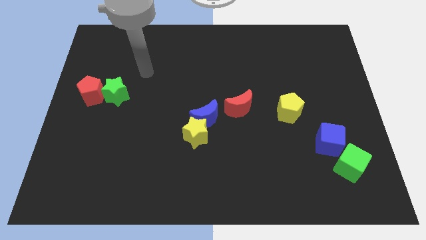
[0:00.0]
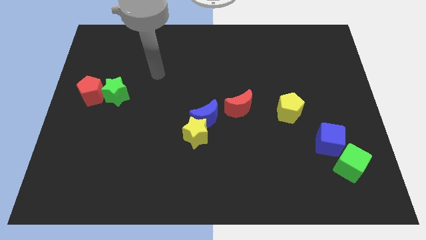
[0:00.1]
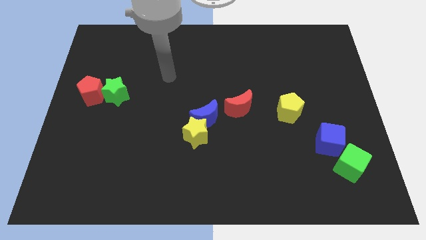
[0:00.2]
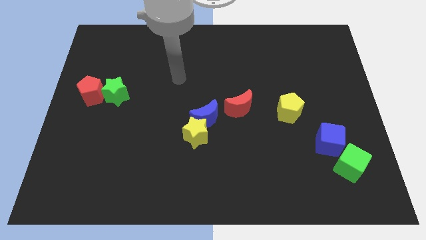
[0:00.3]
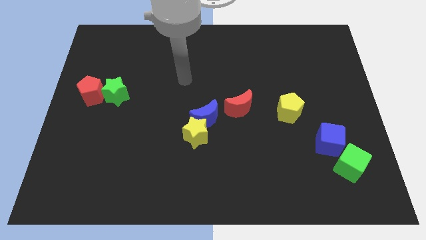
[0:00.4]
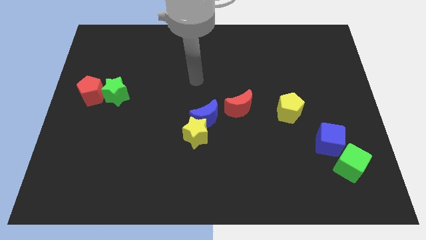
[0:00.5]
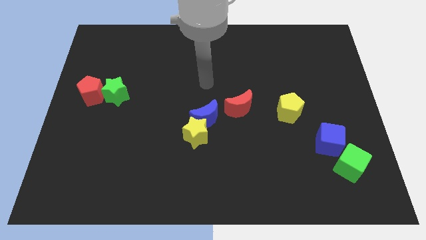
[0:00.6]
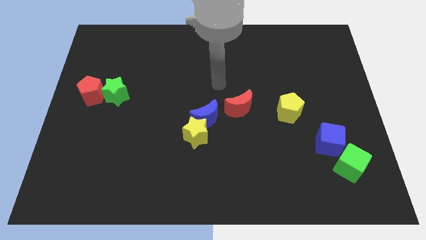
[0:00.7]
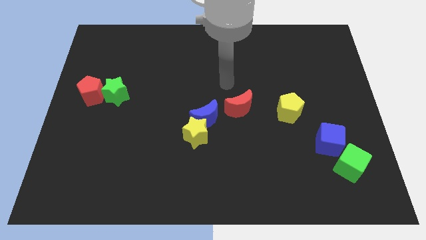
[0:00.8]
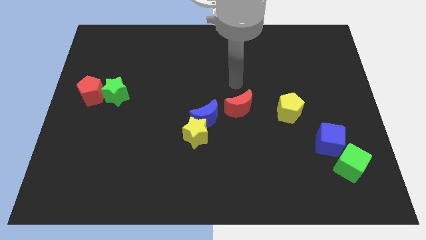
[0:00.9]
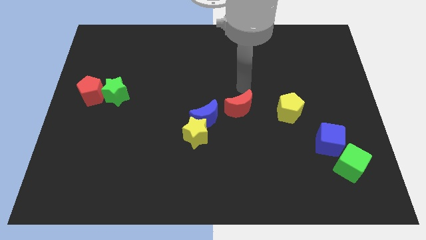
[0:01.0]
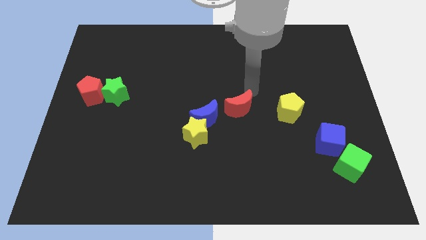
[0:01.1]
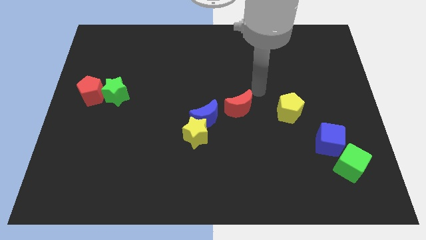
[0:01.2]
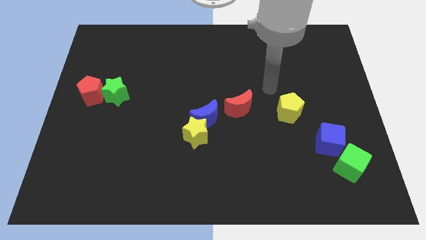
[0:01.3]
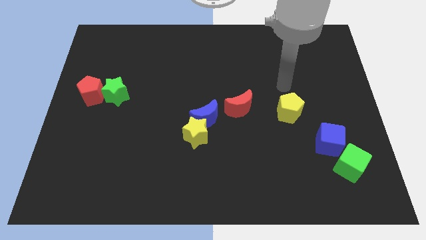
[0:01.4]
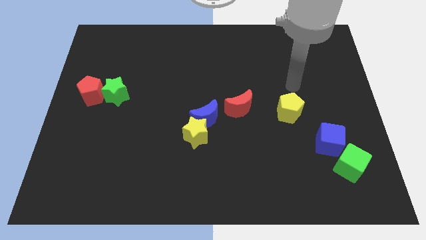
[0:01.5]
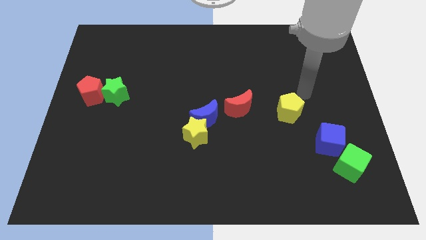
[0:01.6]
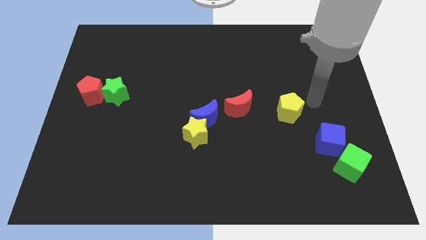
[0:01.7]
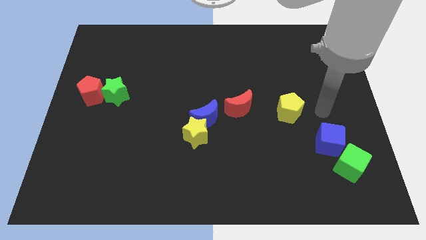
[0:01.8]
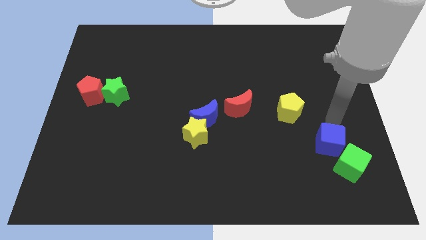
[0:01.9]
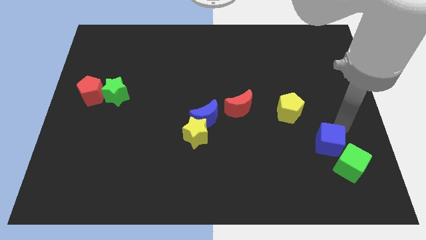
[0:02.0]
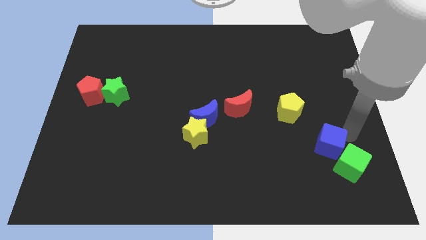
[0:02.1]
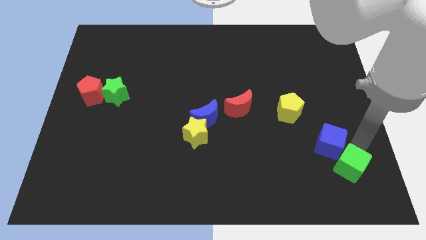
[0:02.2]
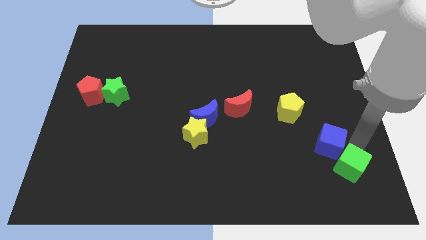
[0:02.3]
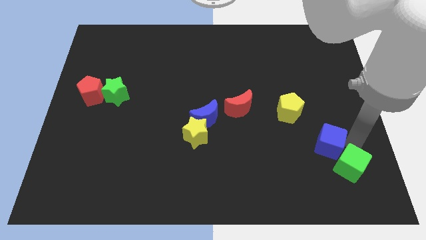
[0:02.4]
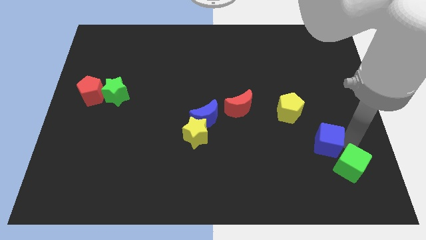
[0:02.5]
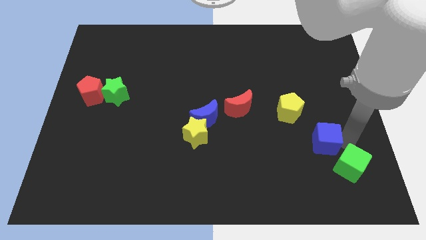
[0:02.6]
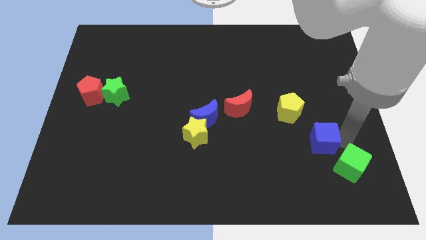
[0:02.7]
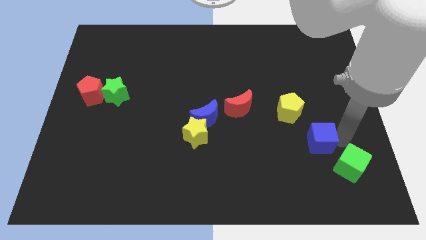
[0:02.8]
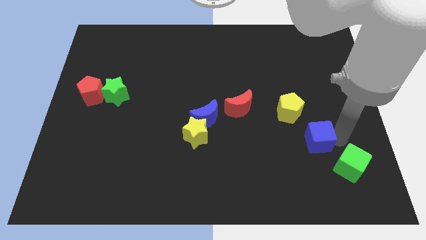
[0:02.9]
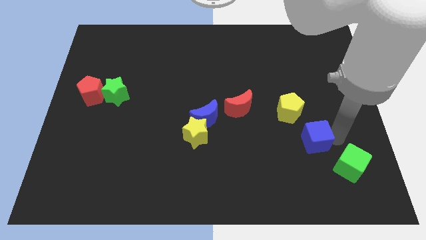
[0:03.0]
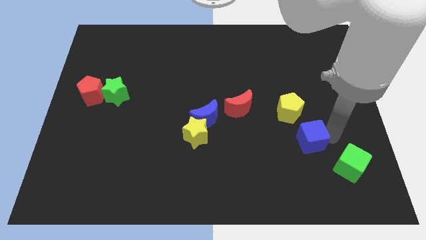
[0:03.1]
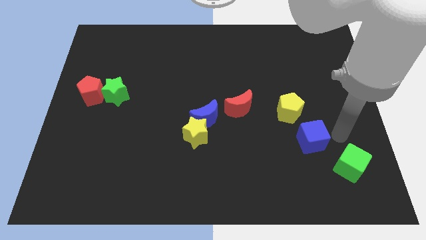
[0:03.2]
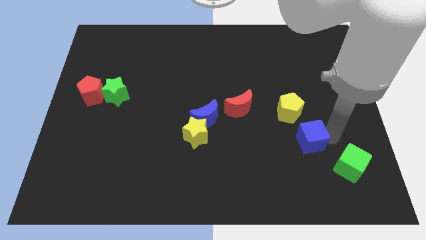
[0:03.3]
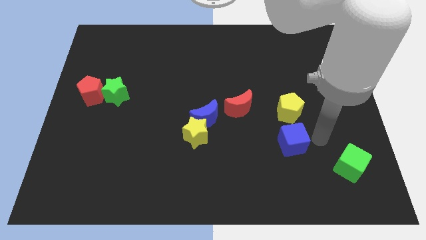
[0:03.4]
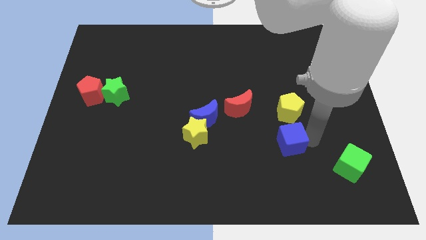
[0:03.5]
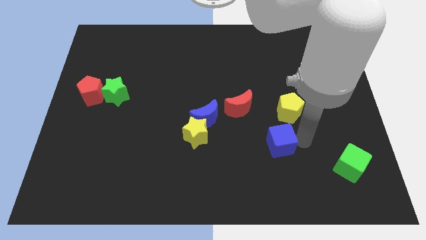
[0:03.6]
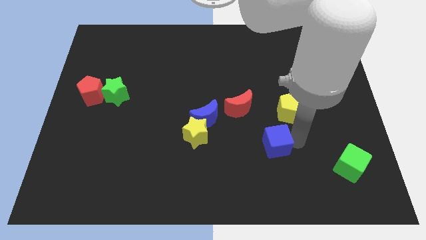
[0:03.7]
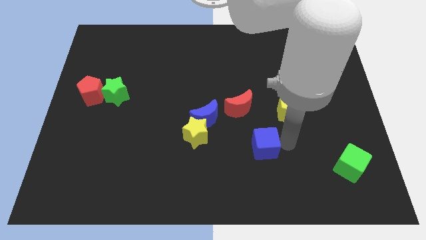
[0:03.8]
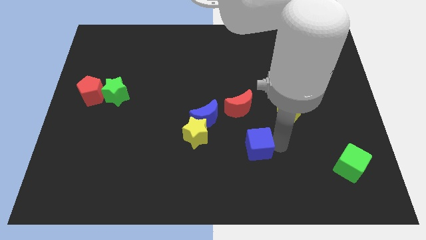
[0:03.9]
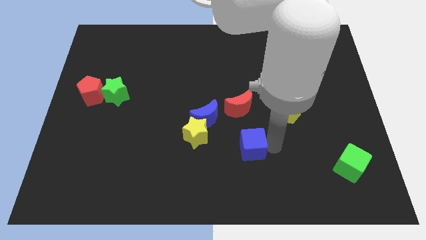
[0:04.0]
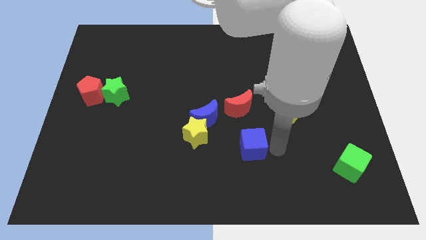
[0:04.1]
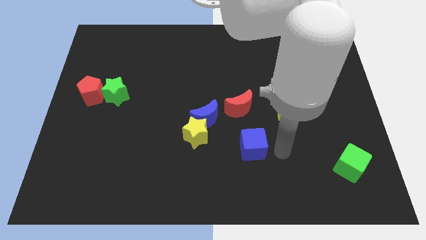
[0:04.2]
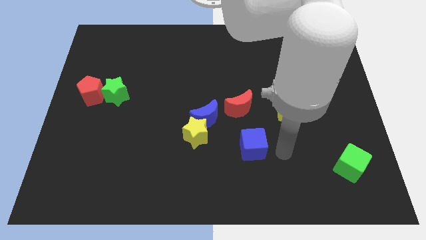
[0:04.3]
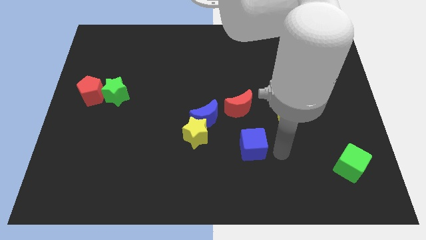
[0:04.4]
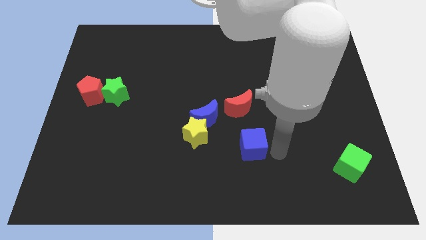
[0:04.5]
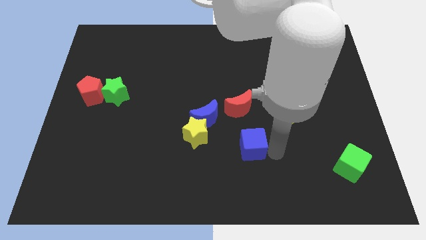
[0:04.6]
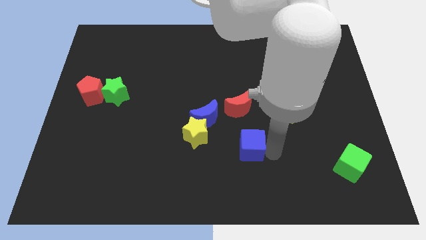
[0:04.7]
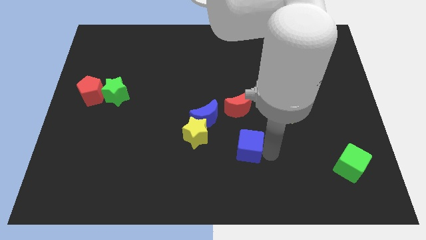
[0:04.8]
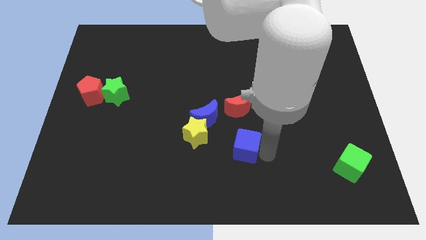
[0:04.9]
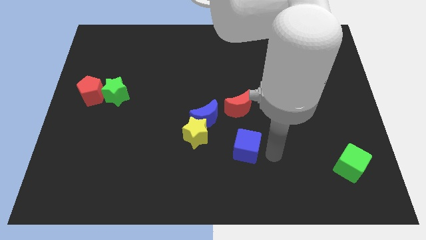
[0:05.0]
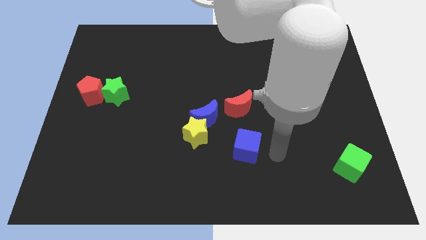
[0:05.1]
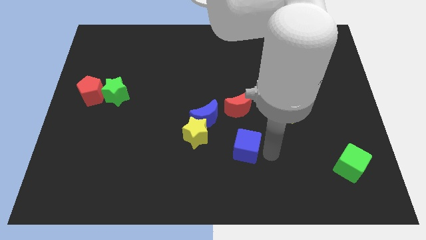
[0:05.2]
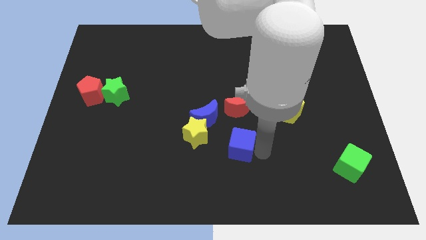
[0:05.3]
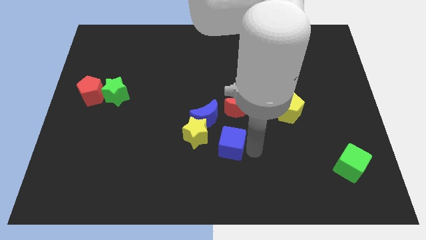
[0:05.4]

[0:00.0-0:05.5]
push the blue cube left

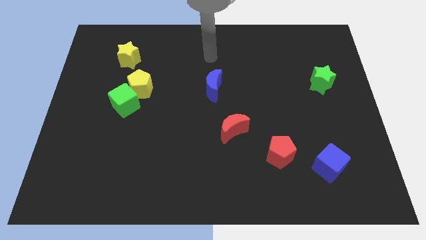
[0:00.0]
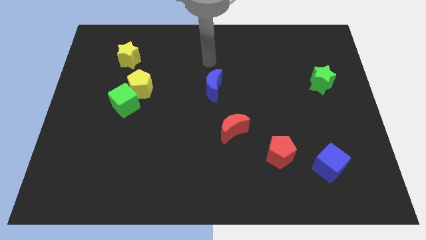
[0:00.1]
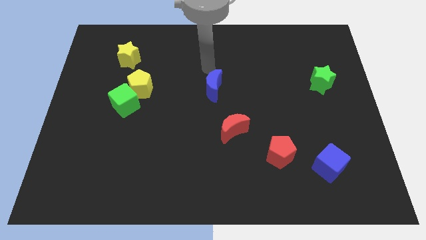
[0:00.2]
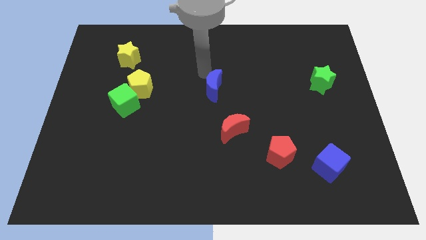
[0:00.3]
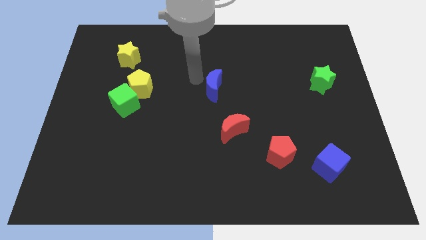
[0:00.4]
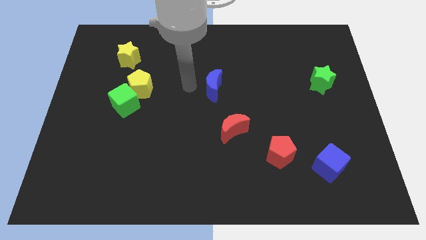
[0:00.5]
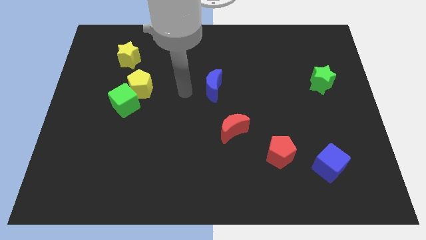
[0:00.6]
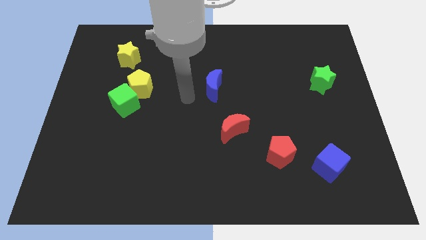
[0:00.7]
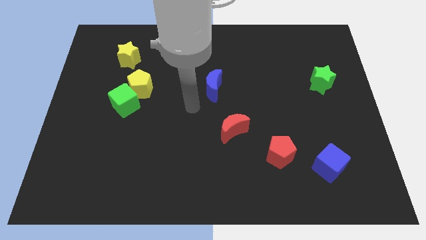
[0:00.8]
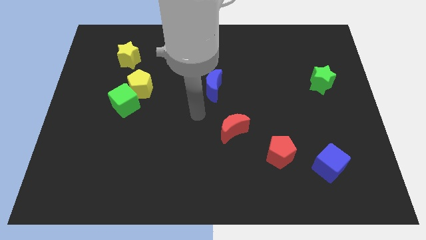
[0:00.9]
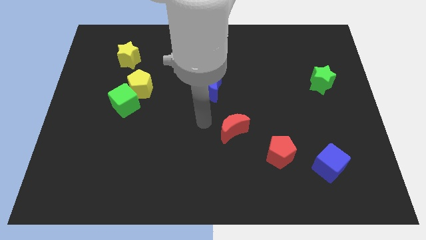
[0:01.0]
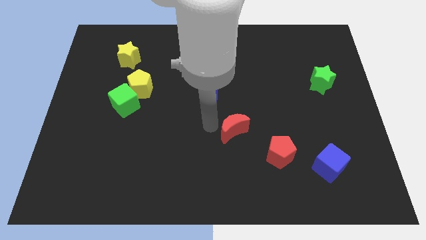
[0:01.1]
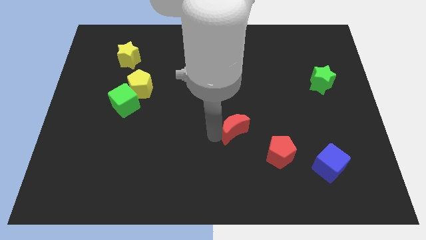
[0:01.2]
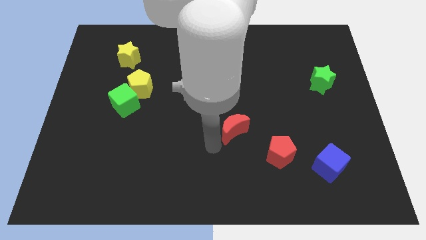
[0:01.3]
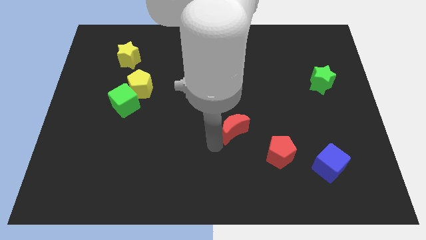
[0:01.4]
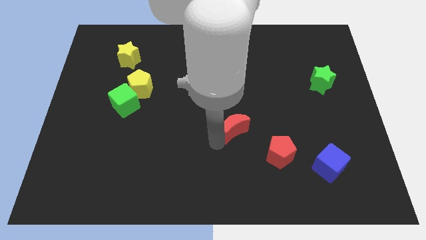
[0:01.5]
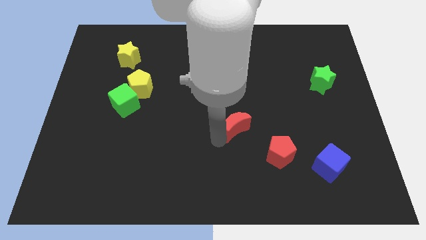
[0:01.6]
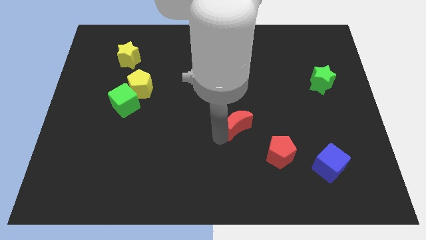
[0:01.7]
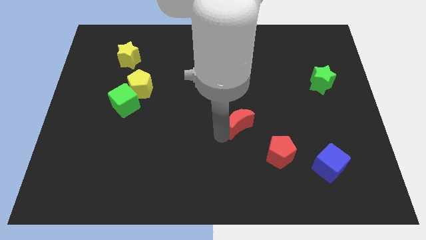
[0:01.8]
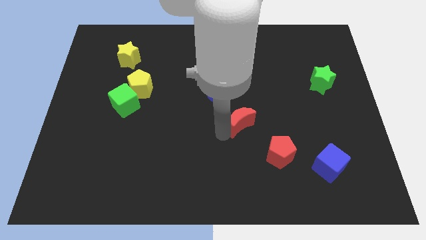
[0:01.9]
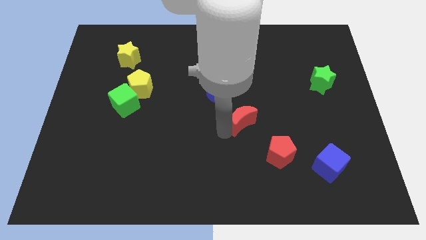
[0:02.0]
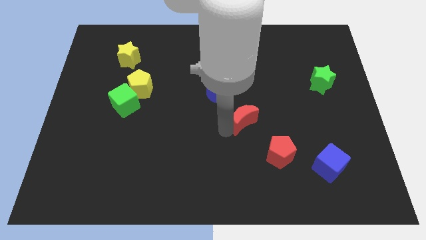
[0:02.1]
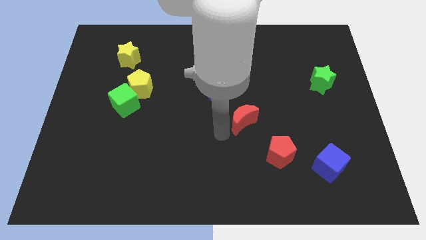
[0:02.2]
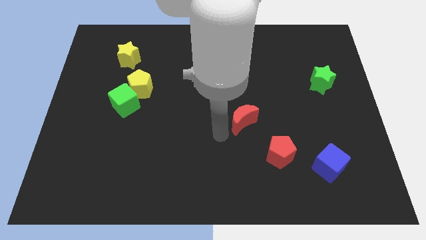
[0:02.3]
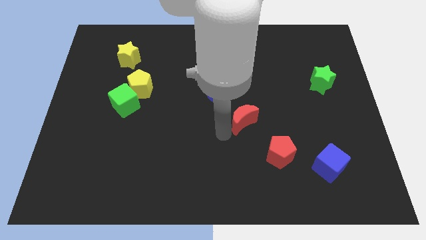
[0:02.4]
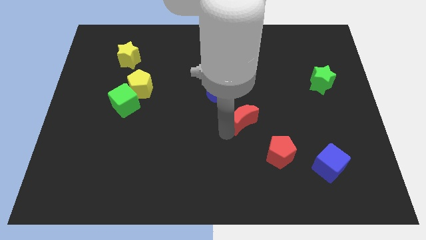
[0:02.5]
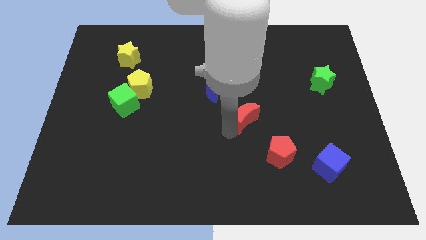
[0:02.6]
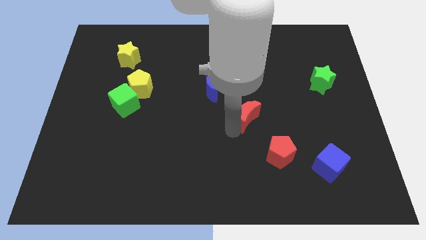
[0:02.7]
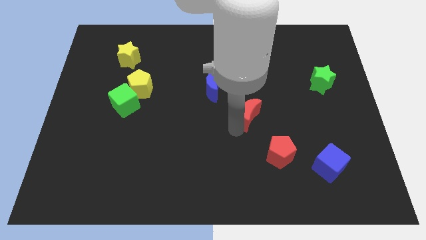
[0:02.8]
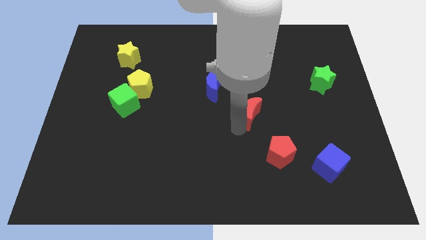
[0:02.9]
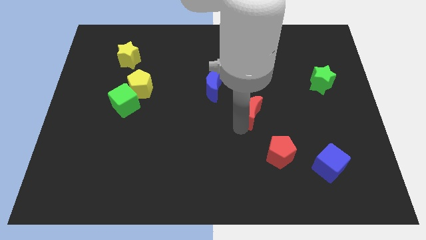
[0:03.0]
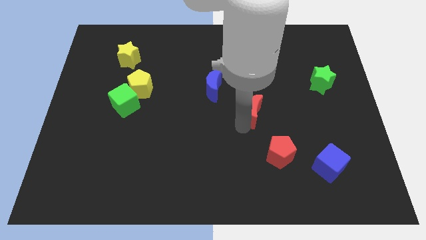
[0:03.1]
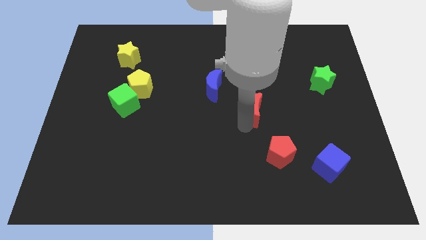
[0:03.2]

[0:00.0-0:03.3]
slightly move the red moon upwards and then to the right
